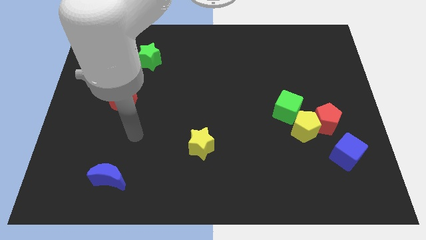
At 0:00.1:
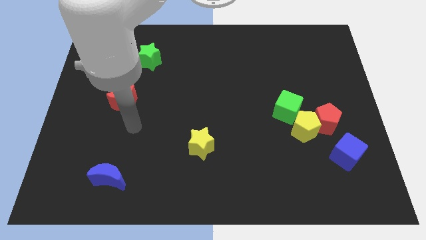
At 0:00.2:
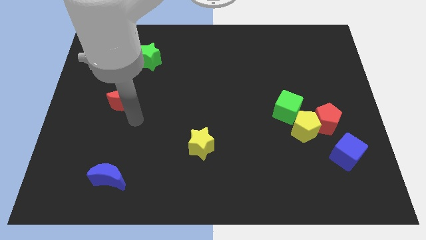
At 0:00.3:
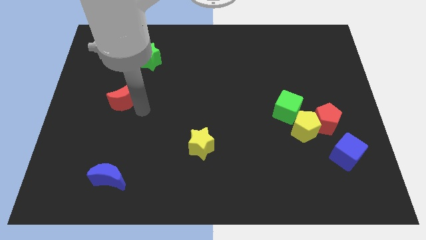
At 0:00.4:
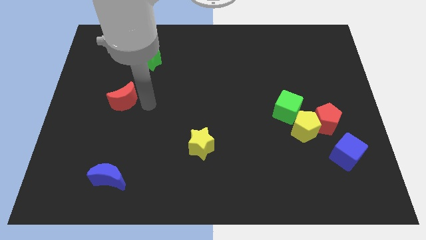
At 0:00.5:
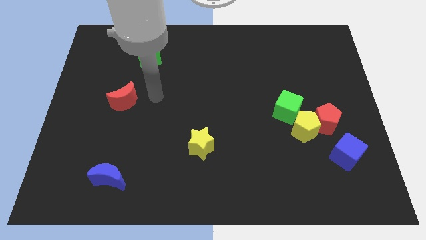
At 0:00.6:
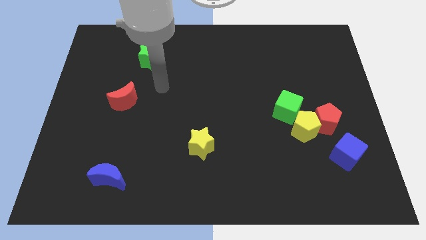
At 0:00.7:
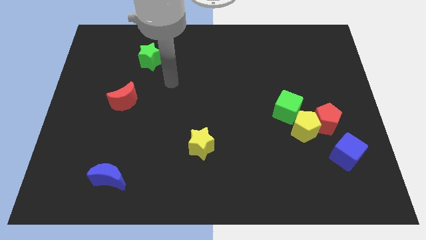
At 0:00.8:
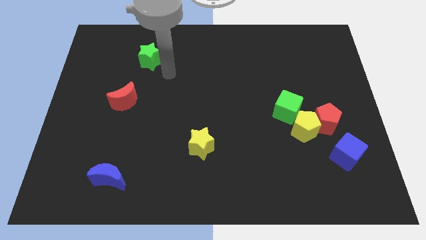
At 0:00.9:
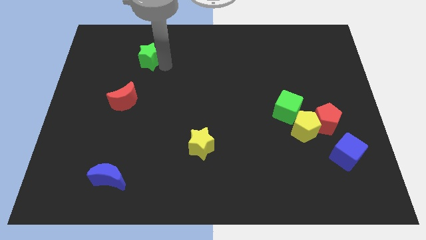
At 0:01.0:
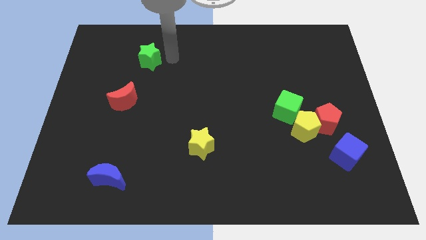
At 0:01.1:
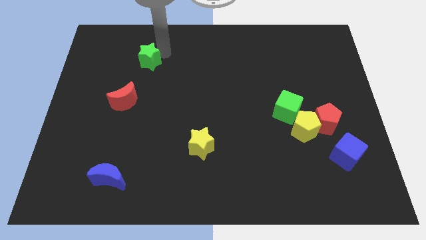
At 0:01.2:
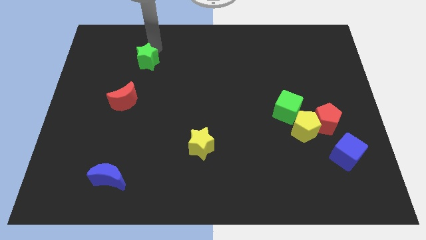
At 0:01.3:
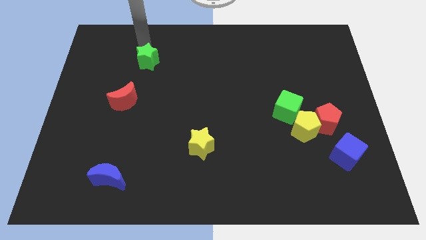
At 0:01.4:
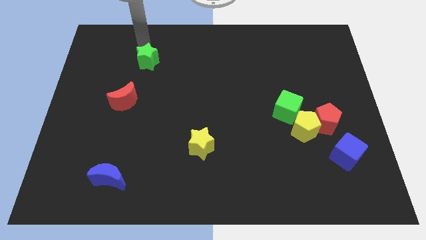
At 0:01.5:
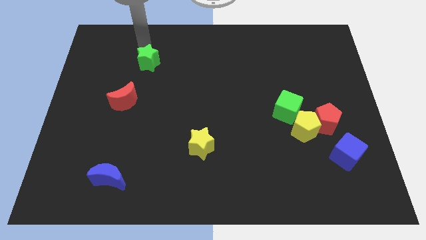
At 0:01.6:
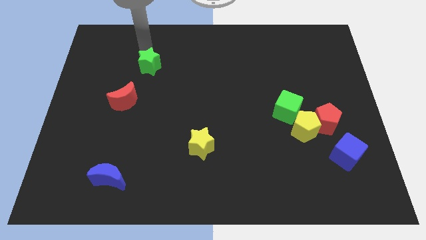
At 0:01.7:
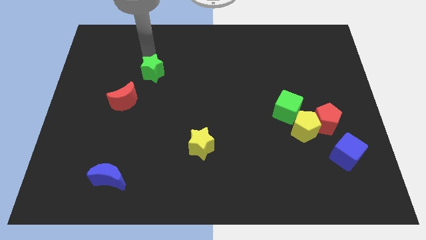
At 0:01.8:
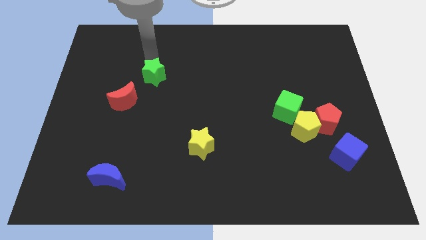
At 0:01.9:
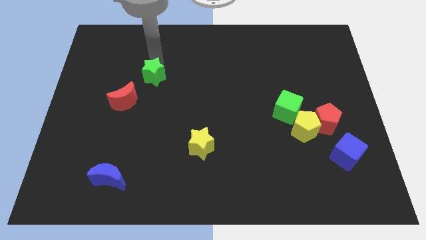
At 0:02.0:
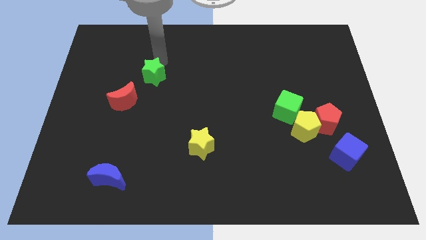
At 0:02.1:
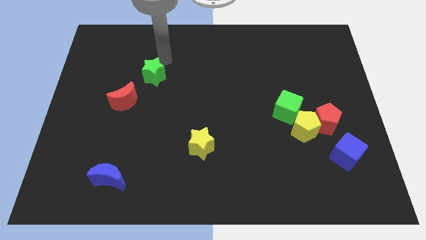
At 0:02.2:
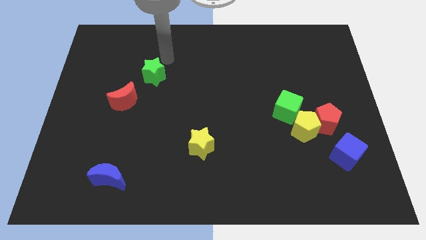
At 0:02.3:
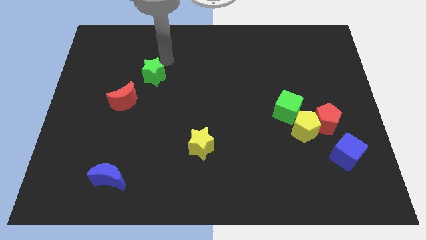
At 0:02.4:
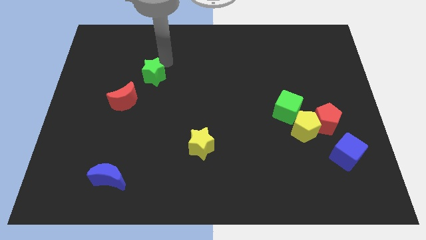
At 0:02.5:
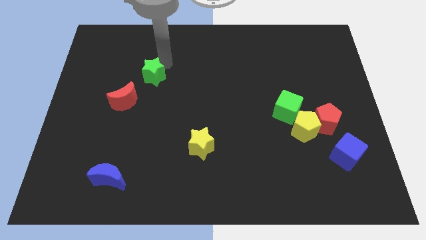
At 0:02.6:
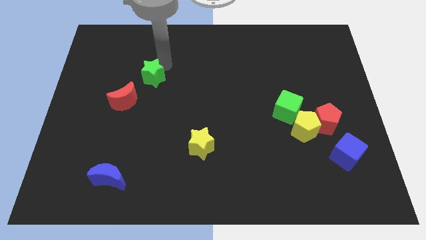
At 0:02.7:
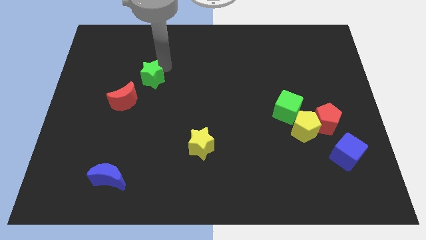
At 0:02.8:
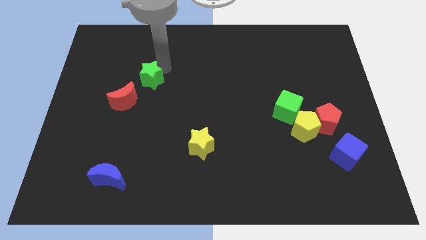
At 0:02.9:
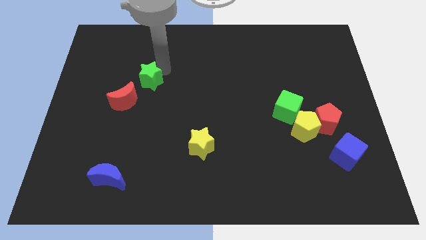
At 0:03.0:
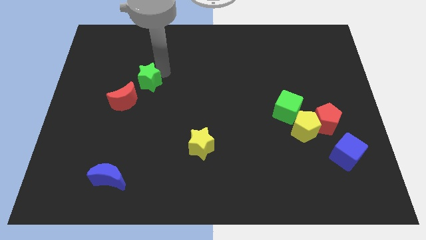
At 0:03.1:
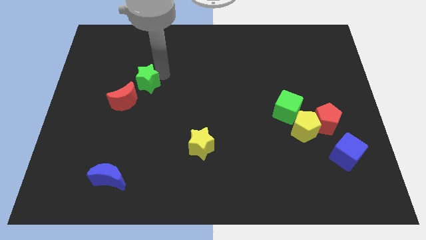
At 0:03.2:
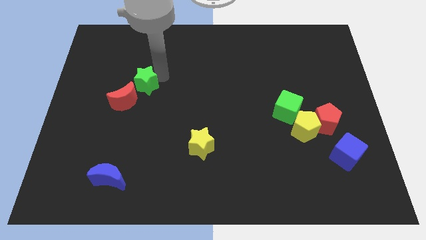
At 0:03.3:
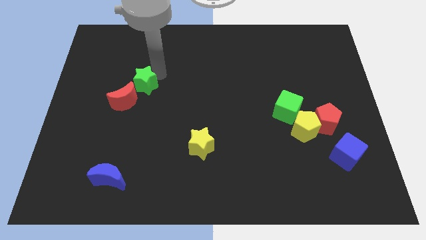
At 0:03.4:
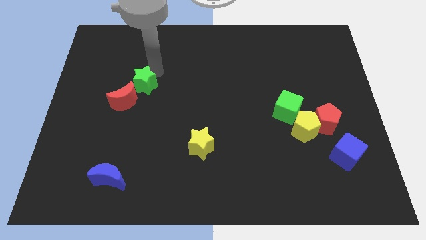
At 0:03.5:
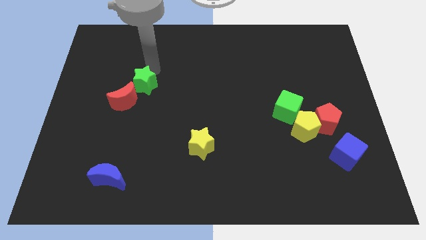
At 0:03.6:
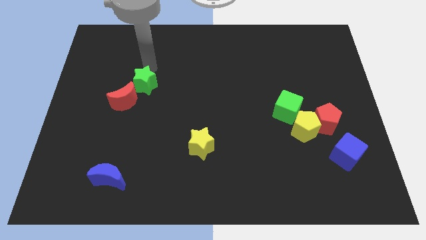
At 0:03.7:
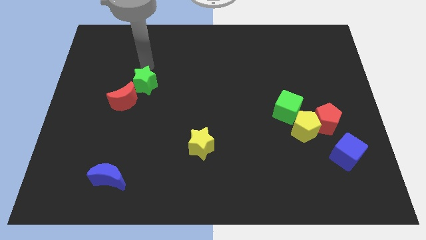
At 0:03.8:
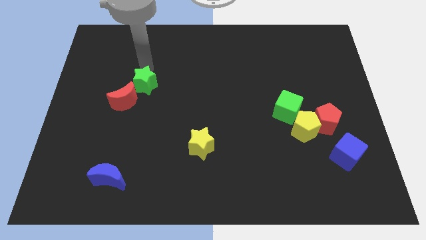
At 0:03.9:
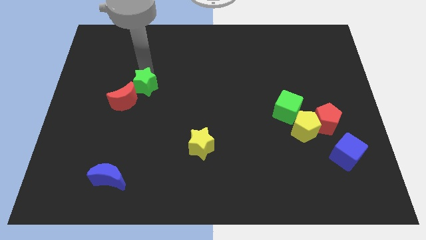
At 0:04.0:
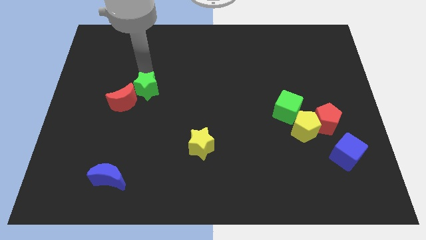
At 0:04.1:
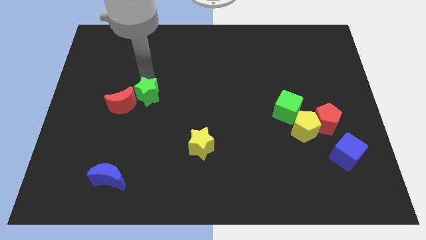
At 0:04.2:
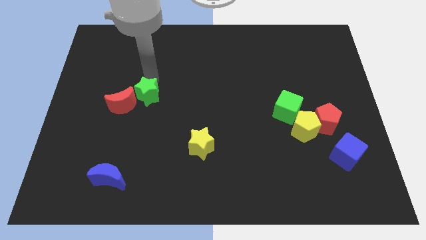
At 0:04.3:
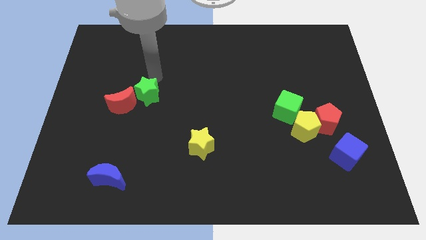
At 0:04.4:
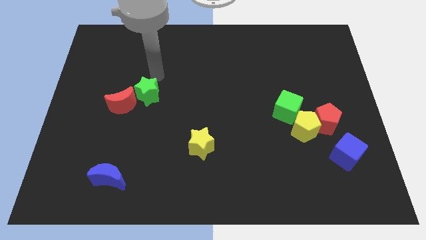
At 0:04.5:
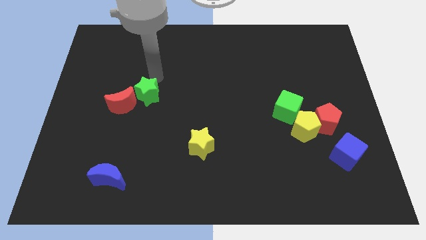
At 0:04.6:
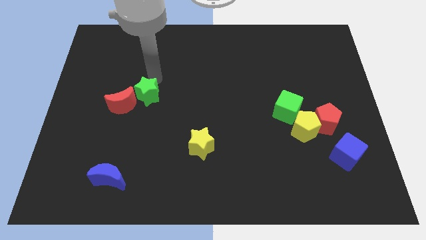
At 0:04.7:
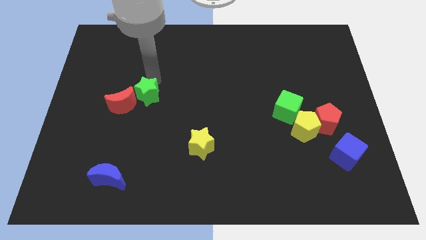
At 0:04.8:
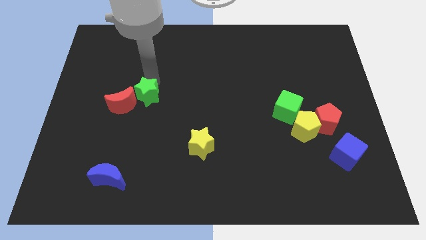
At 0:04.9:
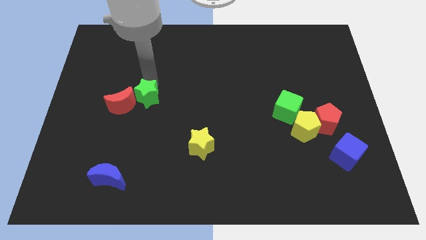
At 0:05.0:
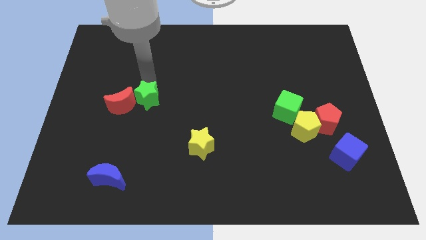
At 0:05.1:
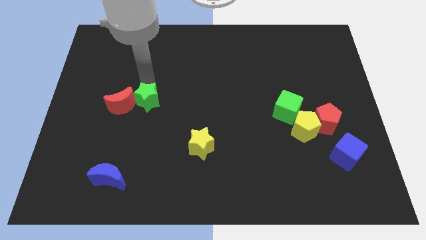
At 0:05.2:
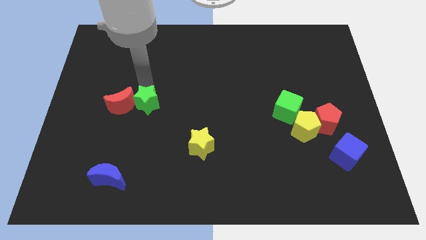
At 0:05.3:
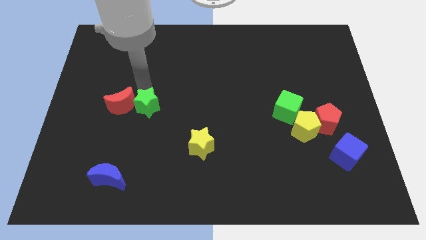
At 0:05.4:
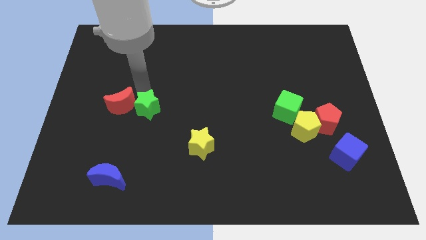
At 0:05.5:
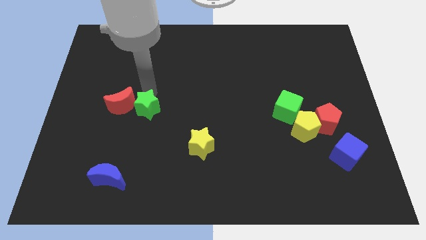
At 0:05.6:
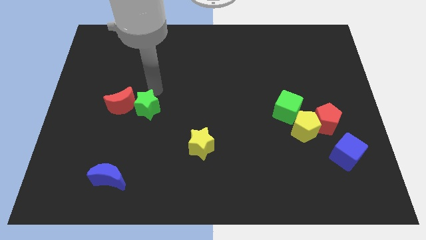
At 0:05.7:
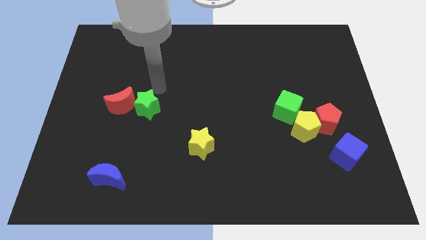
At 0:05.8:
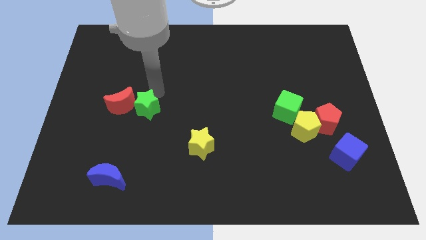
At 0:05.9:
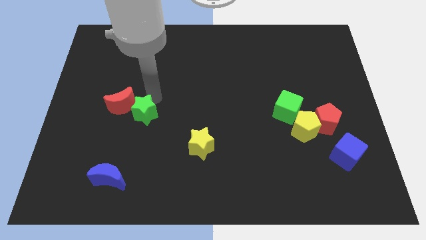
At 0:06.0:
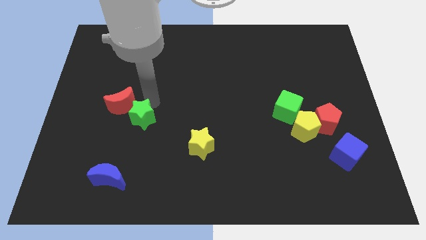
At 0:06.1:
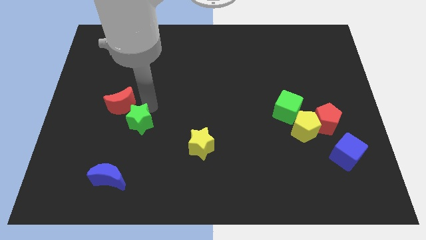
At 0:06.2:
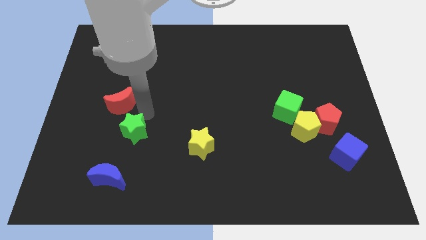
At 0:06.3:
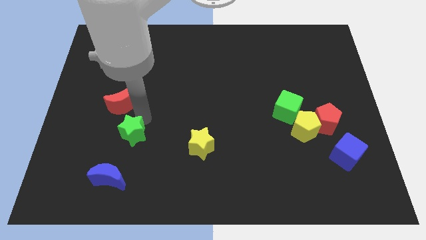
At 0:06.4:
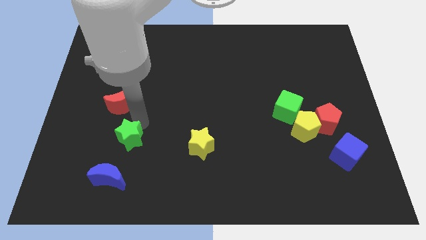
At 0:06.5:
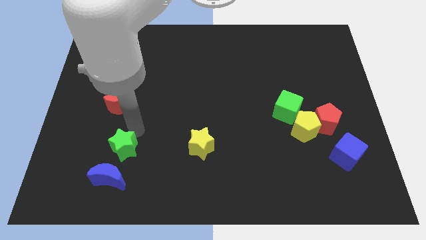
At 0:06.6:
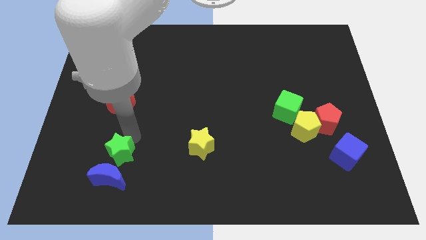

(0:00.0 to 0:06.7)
slide the green star towards the blue moon

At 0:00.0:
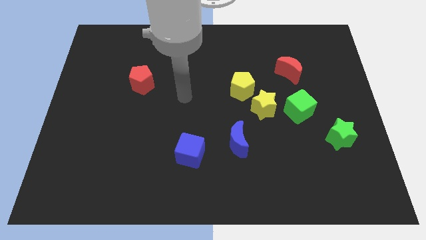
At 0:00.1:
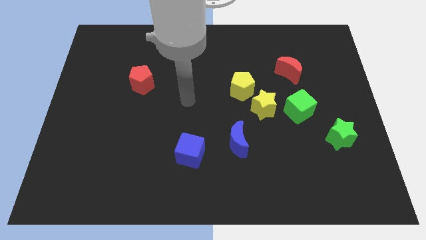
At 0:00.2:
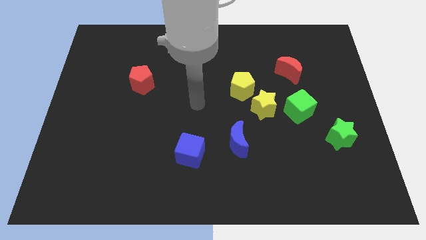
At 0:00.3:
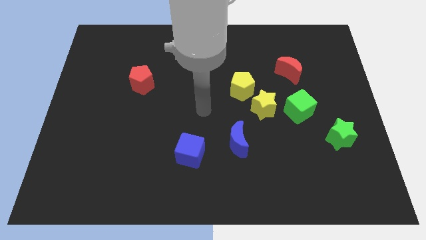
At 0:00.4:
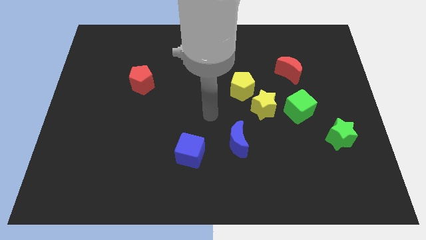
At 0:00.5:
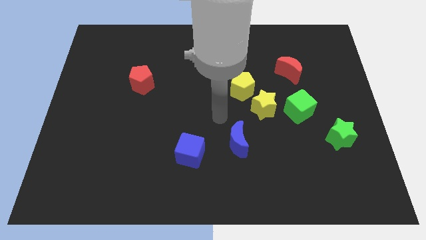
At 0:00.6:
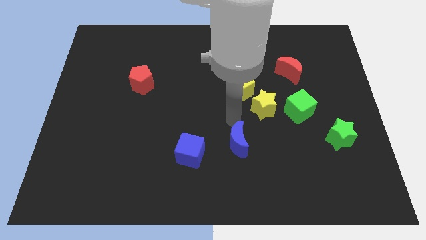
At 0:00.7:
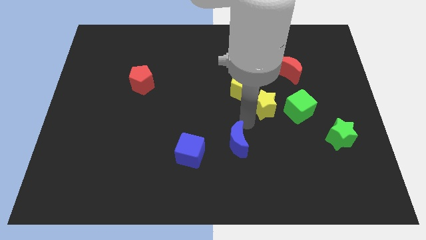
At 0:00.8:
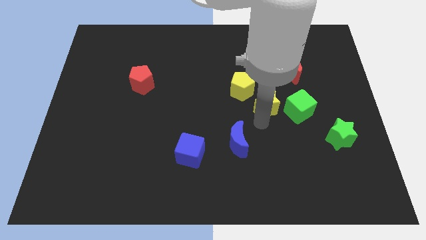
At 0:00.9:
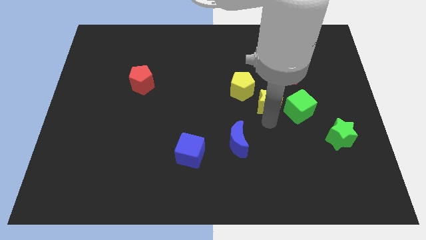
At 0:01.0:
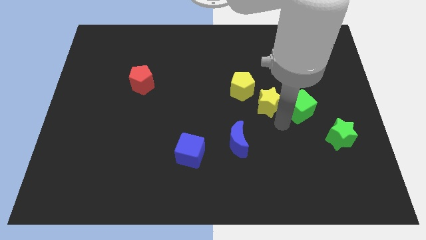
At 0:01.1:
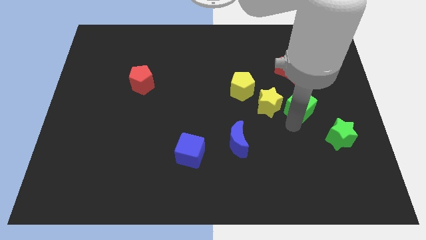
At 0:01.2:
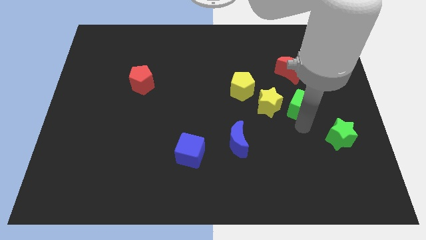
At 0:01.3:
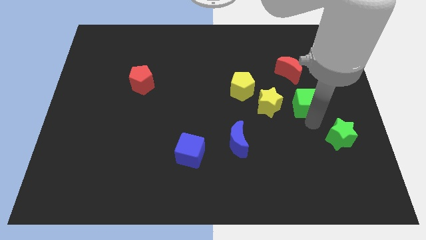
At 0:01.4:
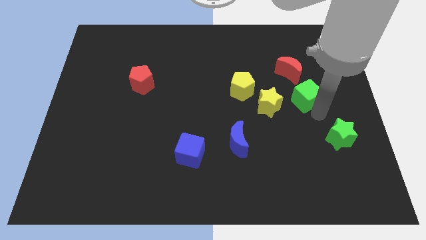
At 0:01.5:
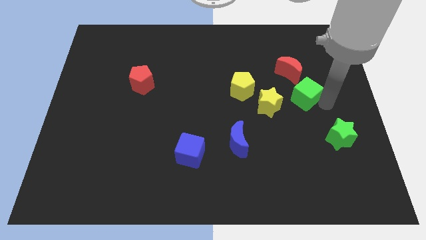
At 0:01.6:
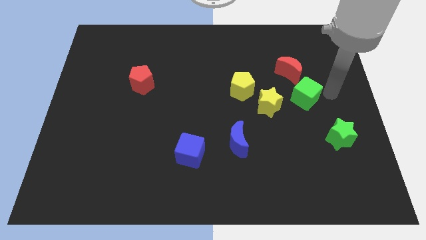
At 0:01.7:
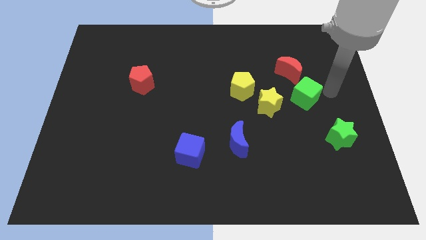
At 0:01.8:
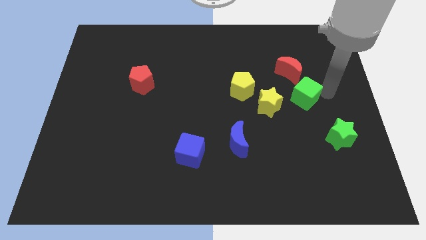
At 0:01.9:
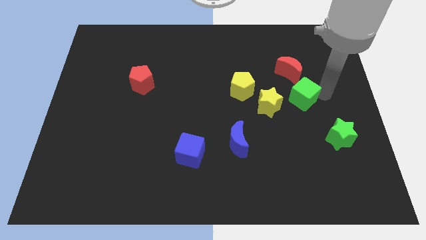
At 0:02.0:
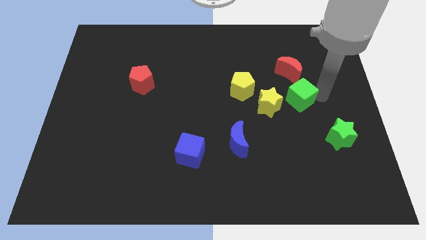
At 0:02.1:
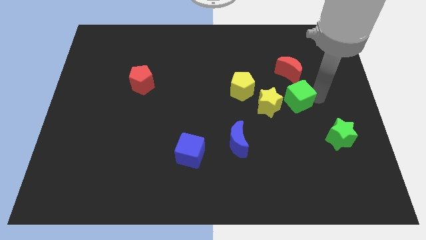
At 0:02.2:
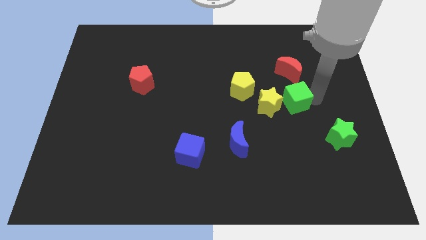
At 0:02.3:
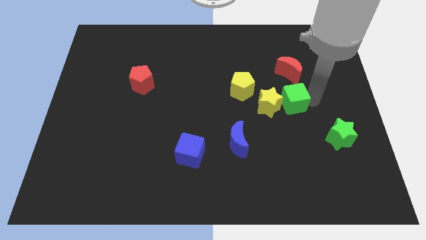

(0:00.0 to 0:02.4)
slide the green cube to the yellow star
